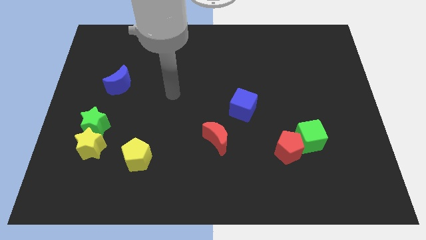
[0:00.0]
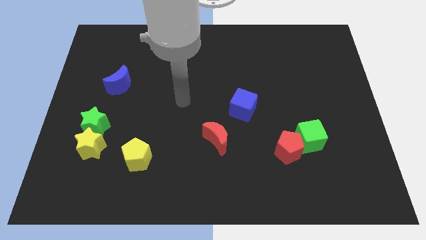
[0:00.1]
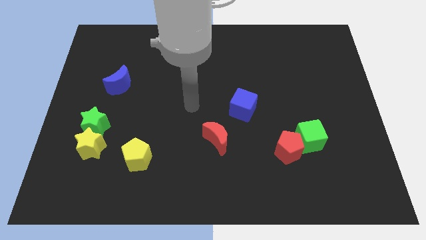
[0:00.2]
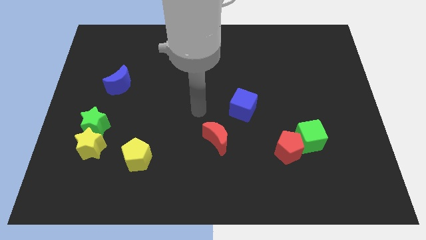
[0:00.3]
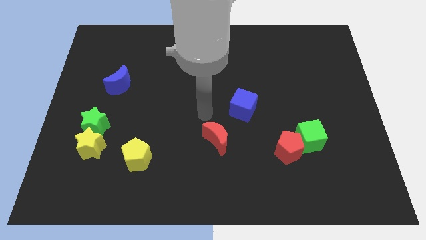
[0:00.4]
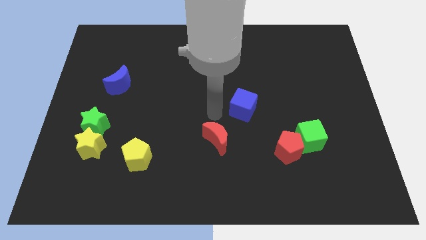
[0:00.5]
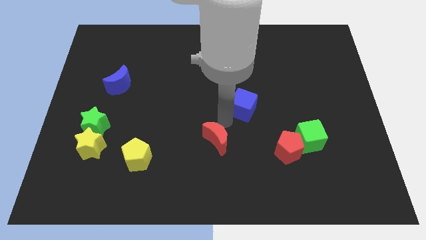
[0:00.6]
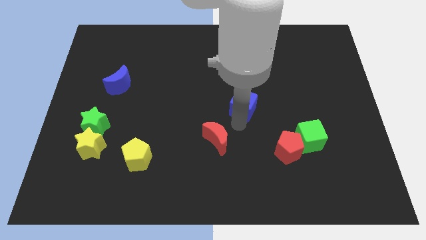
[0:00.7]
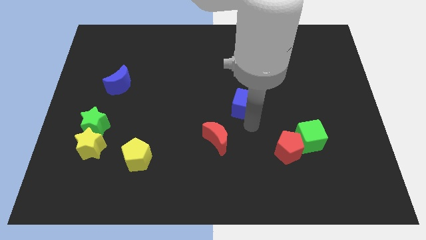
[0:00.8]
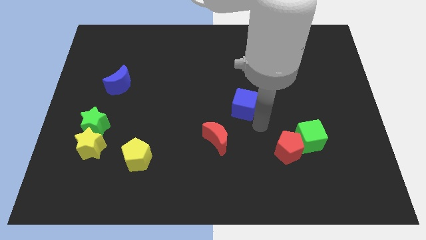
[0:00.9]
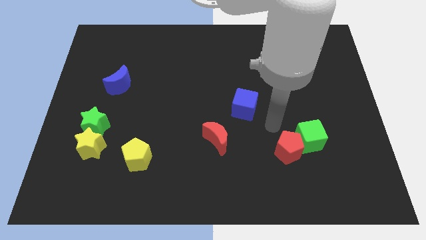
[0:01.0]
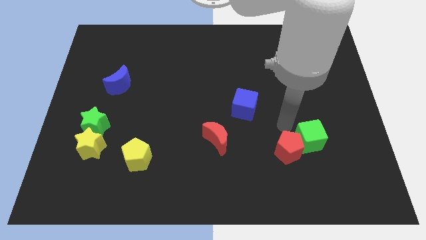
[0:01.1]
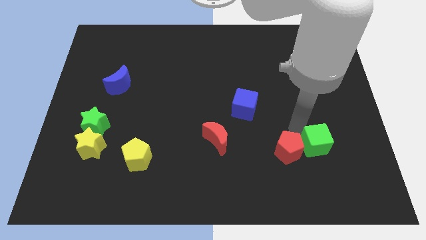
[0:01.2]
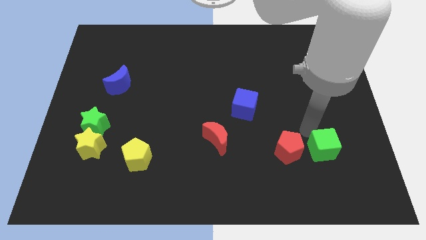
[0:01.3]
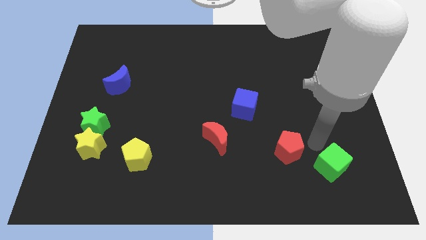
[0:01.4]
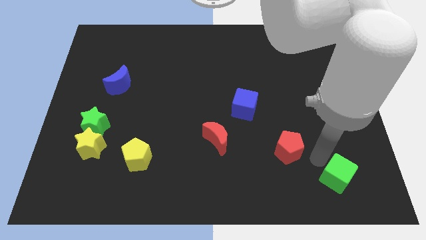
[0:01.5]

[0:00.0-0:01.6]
move the red pentagon away from the green cube

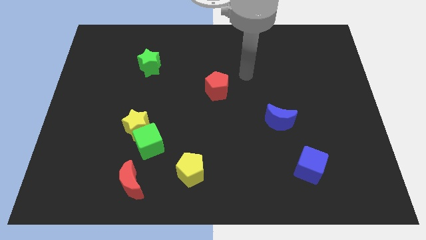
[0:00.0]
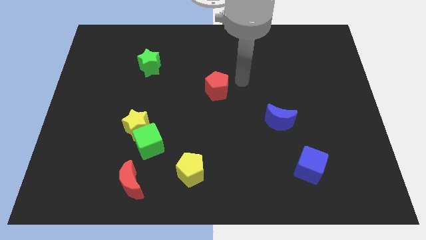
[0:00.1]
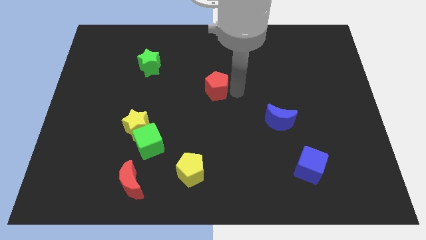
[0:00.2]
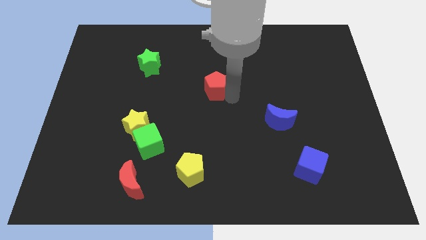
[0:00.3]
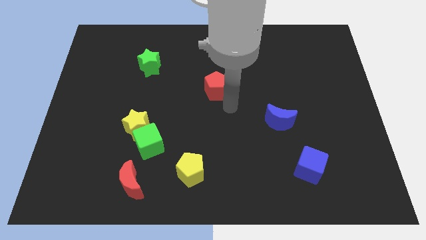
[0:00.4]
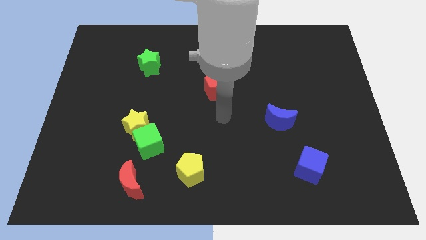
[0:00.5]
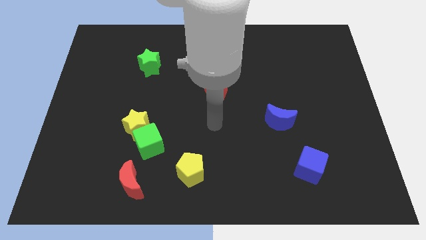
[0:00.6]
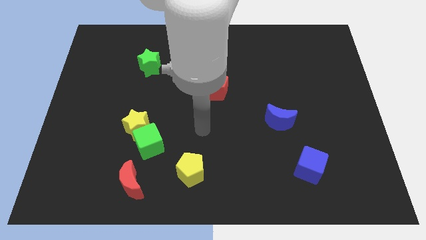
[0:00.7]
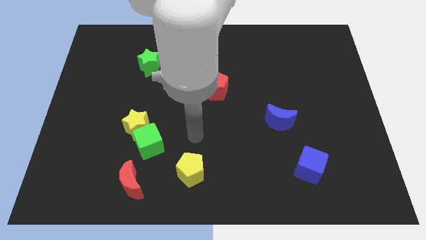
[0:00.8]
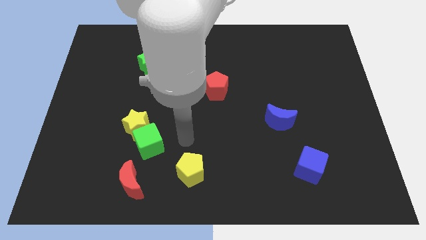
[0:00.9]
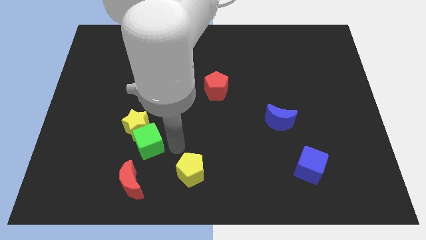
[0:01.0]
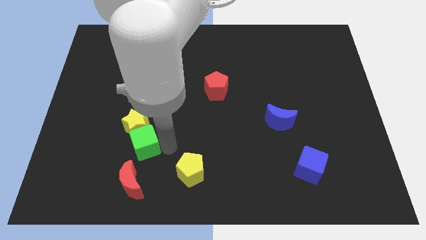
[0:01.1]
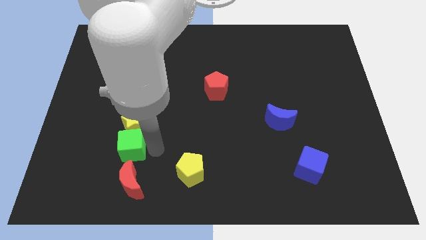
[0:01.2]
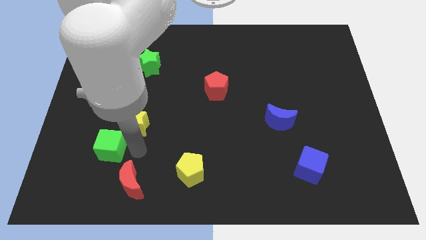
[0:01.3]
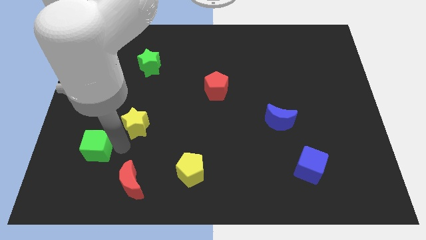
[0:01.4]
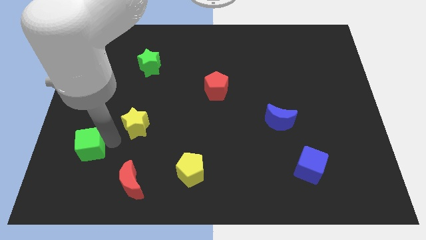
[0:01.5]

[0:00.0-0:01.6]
move the yellow star away from the green cube

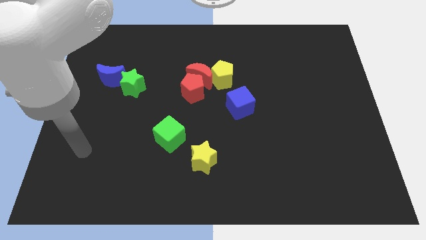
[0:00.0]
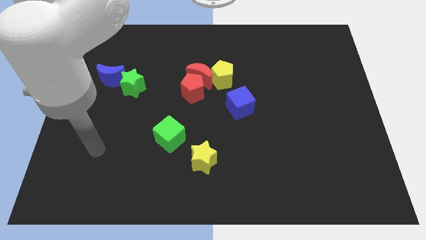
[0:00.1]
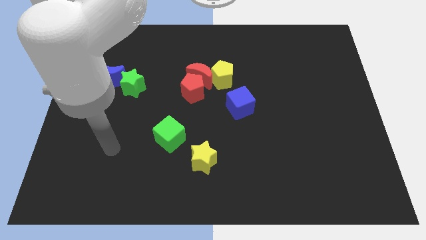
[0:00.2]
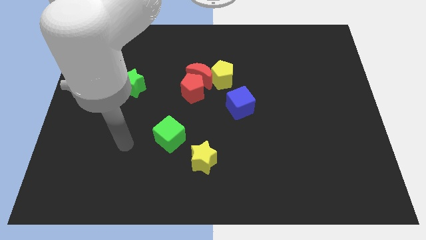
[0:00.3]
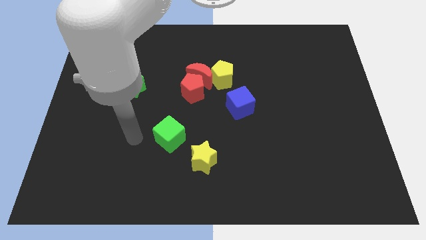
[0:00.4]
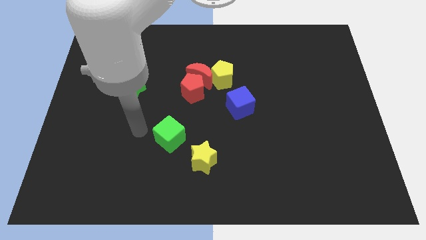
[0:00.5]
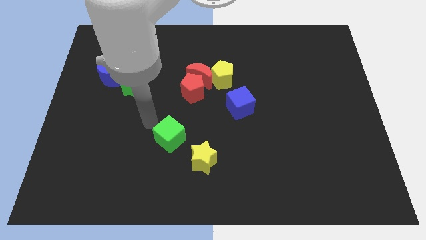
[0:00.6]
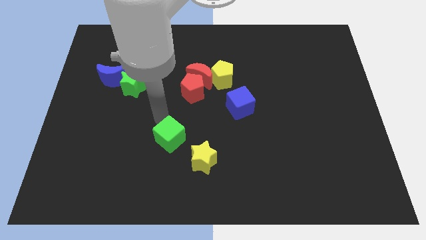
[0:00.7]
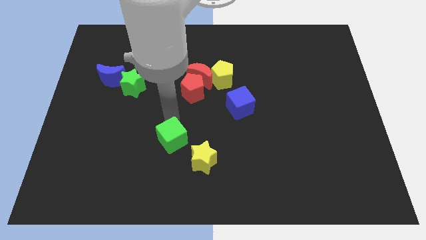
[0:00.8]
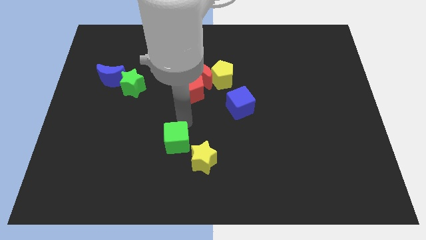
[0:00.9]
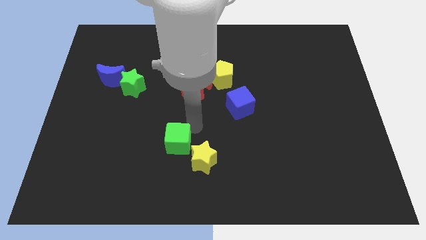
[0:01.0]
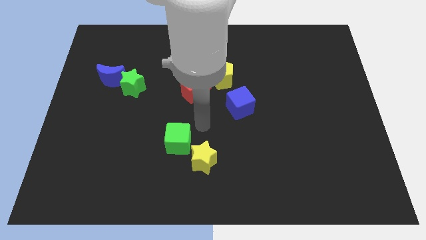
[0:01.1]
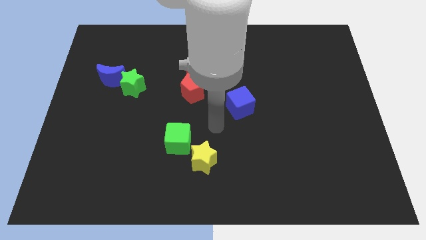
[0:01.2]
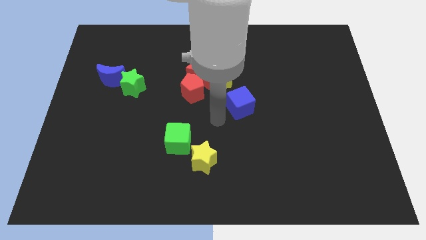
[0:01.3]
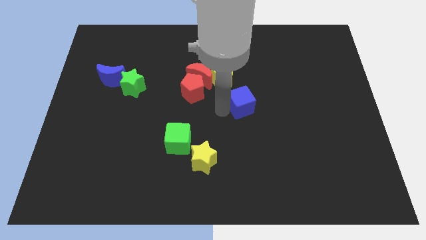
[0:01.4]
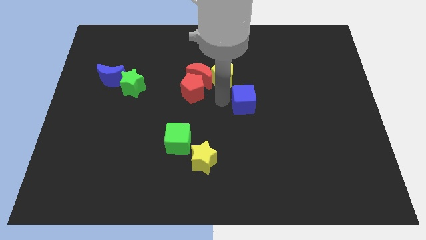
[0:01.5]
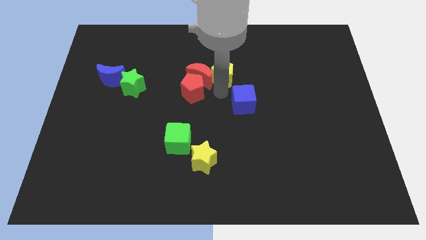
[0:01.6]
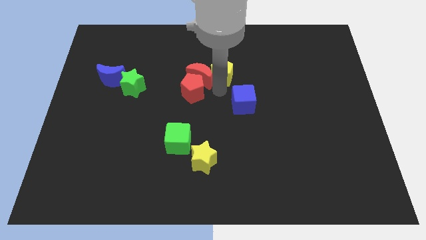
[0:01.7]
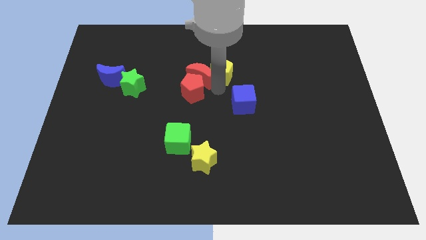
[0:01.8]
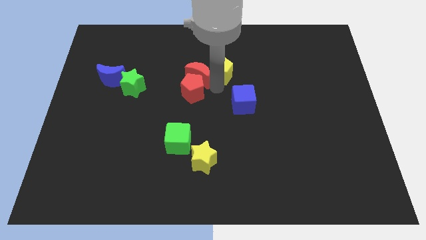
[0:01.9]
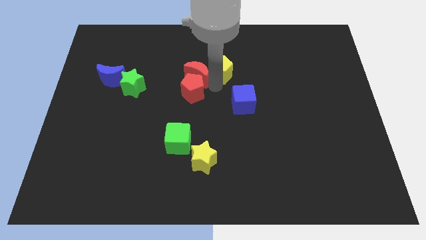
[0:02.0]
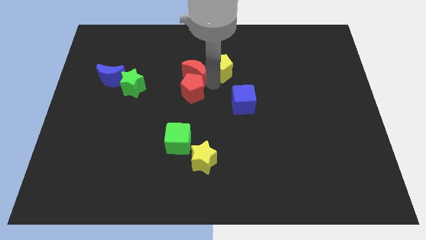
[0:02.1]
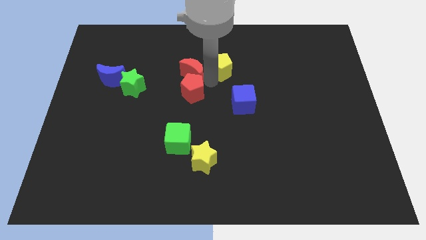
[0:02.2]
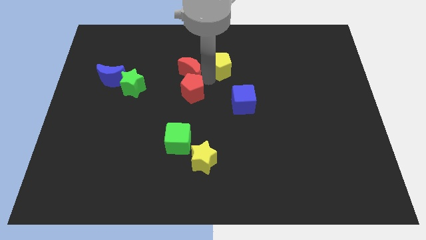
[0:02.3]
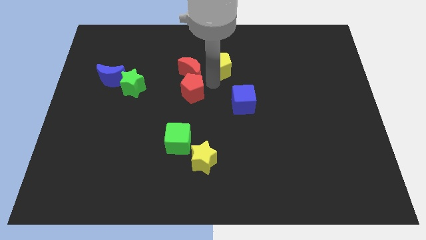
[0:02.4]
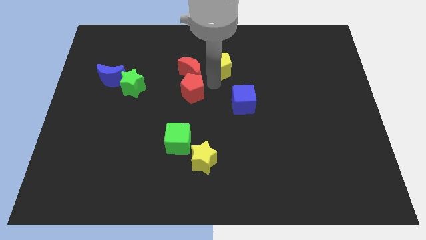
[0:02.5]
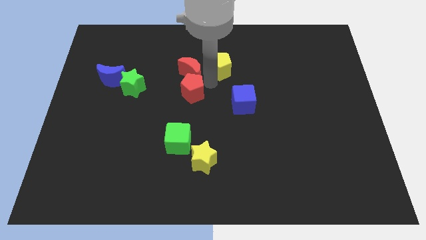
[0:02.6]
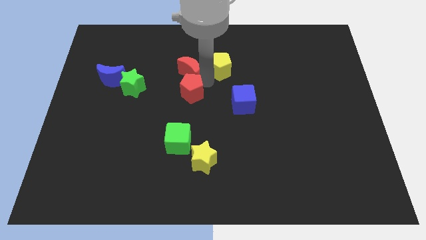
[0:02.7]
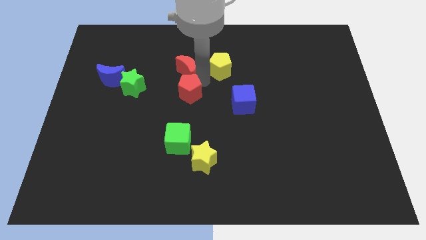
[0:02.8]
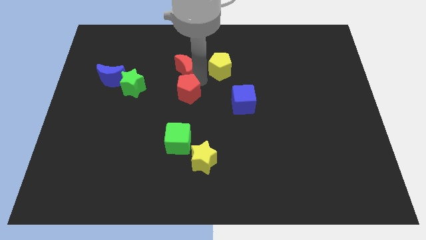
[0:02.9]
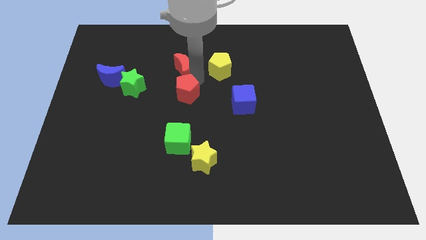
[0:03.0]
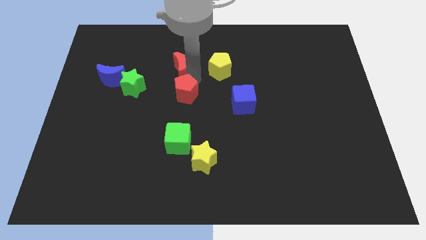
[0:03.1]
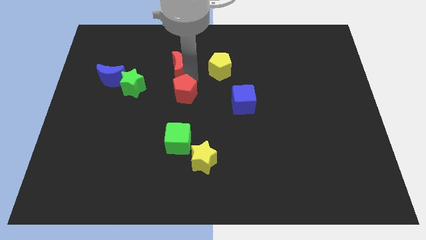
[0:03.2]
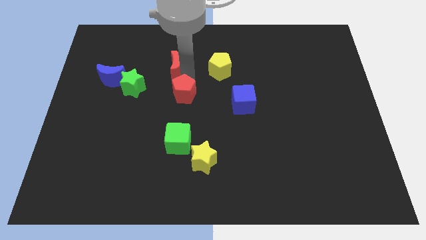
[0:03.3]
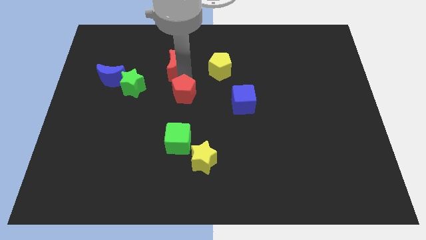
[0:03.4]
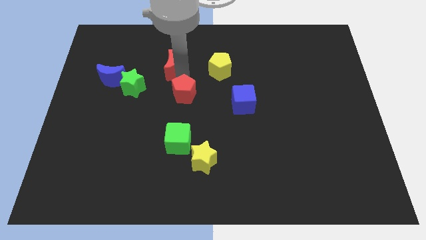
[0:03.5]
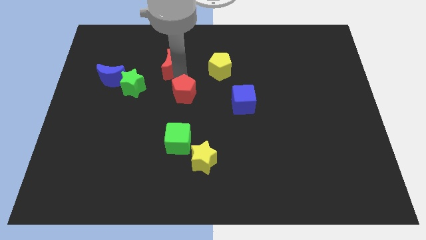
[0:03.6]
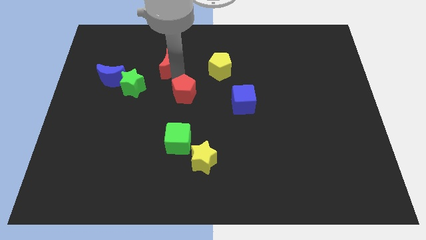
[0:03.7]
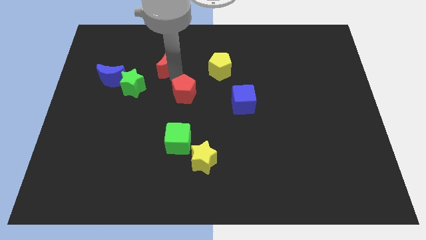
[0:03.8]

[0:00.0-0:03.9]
separate the red moon from the red pentagon and yellow pentagon

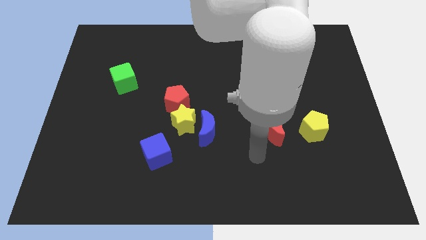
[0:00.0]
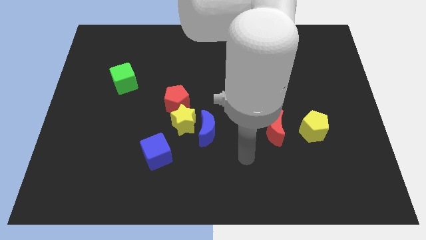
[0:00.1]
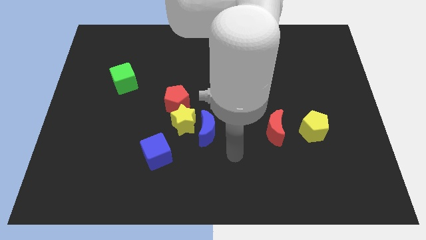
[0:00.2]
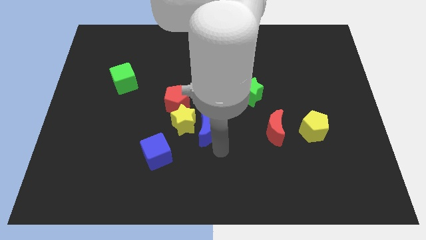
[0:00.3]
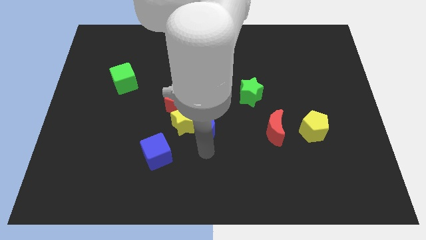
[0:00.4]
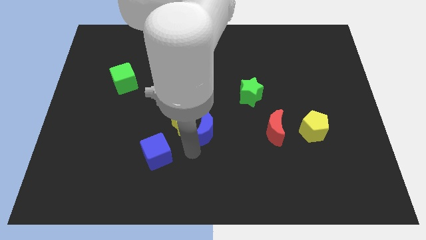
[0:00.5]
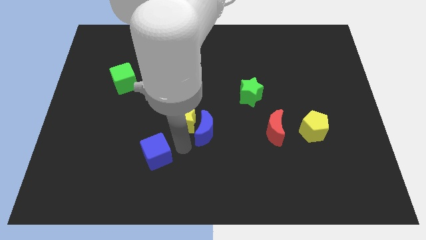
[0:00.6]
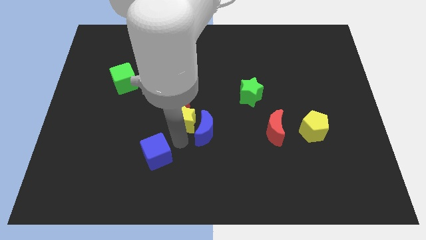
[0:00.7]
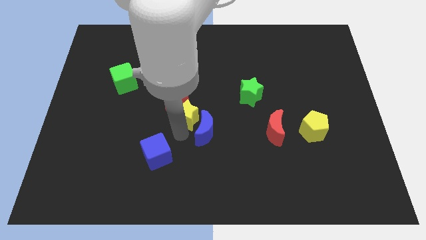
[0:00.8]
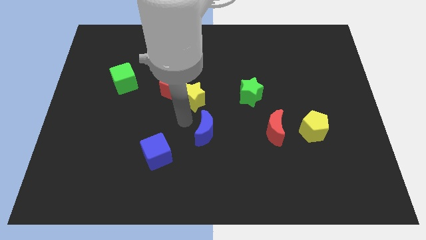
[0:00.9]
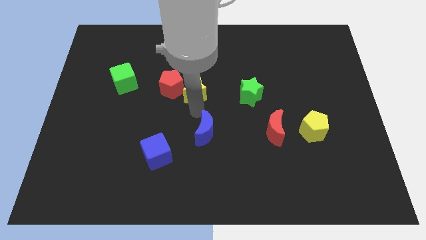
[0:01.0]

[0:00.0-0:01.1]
separate the blue moon from the yellow star

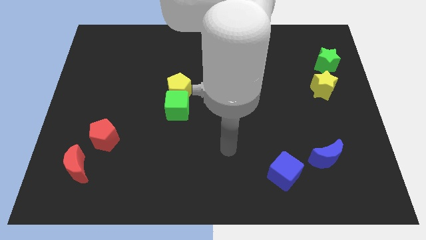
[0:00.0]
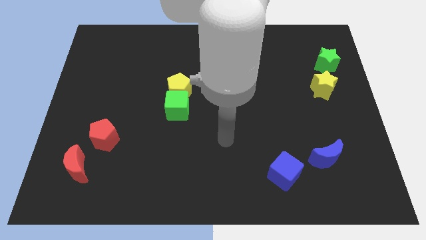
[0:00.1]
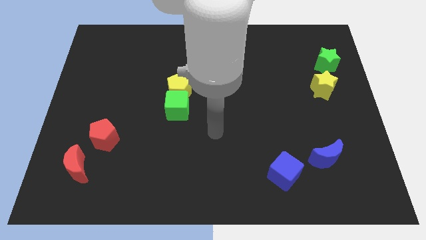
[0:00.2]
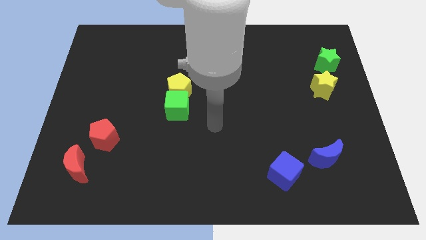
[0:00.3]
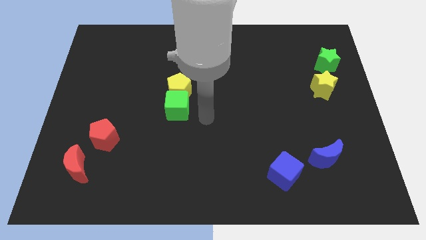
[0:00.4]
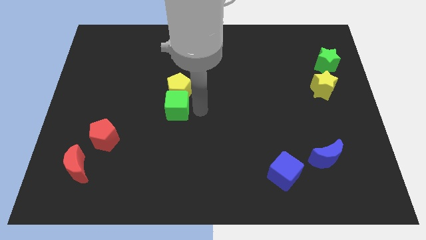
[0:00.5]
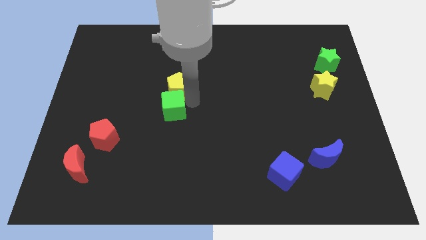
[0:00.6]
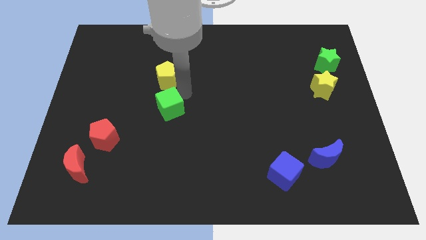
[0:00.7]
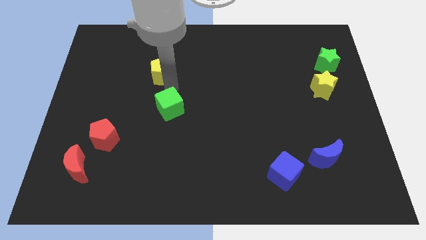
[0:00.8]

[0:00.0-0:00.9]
move the green cube away from the yellow pentagon

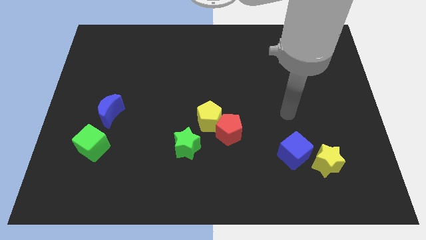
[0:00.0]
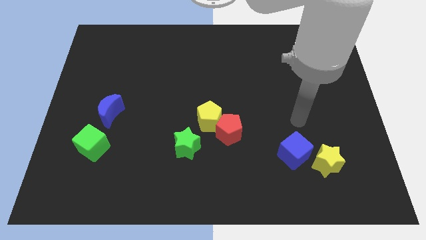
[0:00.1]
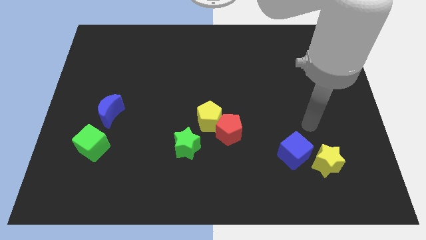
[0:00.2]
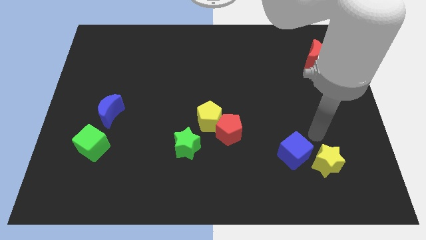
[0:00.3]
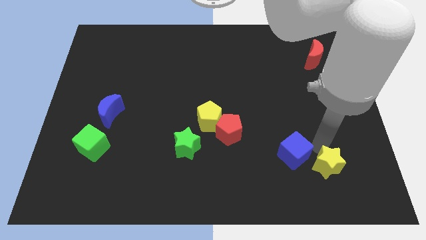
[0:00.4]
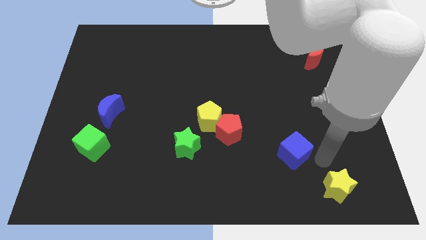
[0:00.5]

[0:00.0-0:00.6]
pull the blue cube apart from the yellow star
